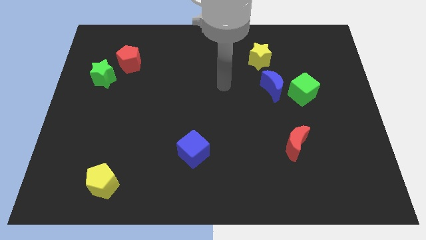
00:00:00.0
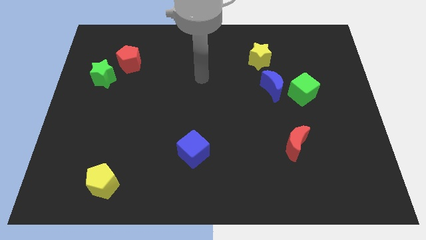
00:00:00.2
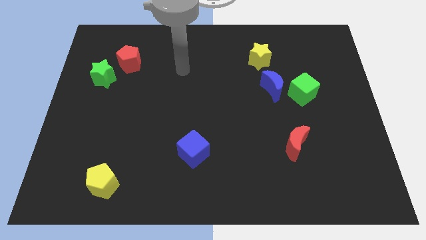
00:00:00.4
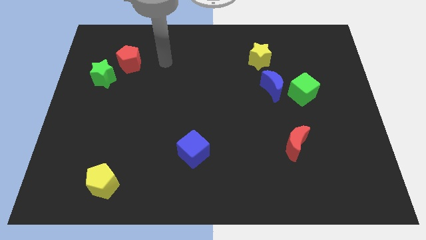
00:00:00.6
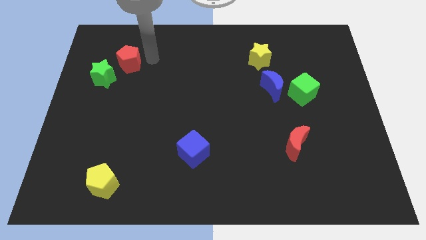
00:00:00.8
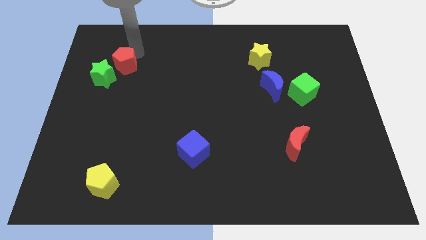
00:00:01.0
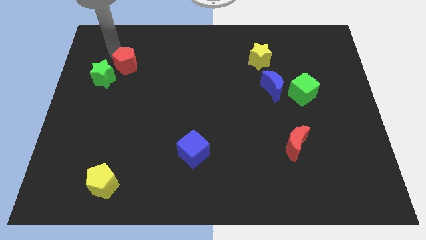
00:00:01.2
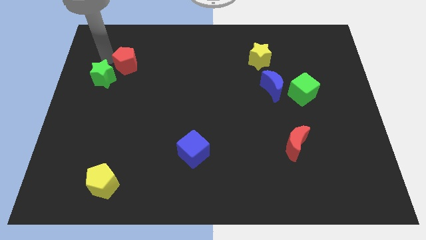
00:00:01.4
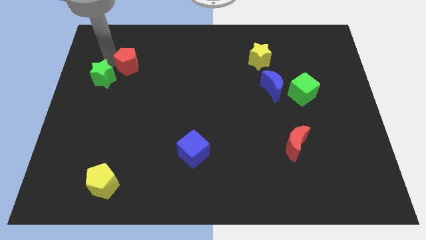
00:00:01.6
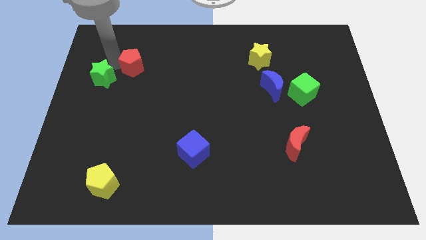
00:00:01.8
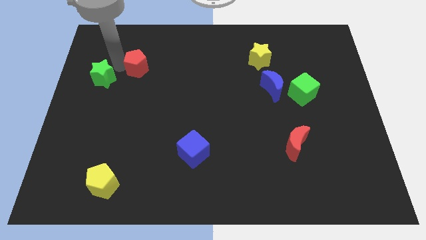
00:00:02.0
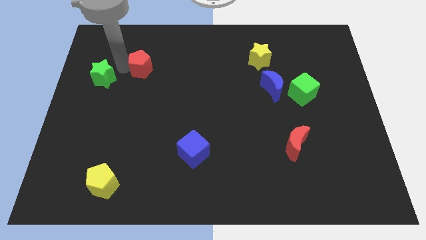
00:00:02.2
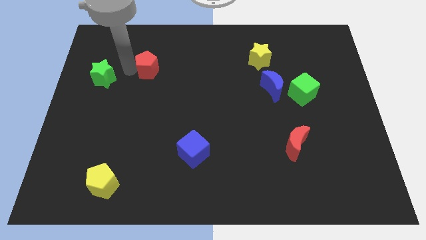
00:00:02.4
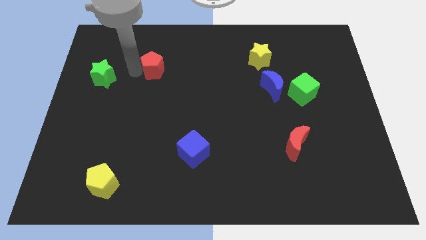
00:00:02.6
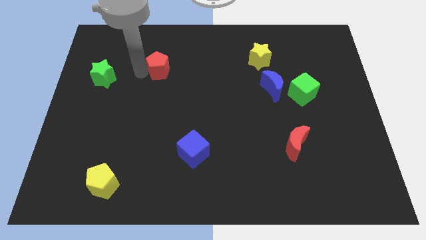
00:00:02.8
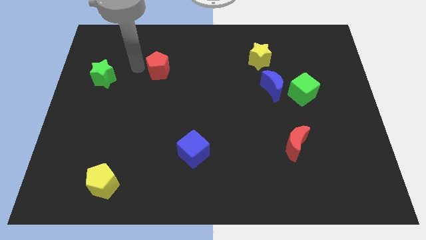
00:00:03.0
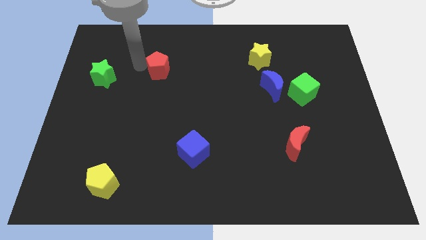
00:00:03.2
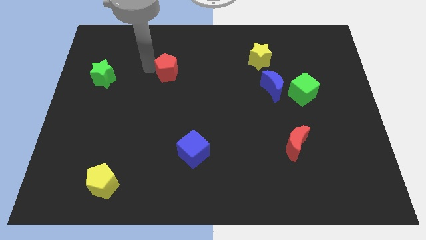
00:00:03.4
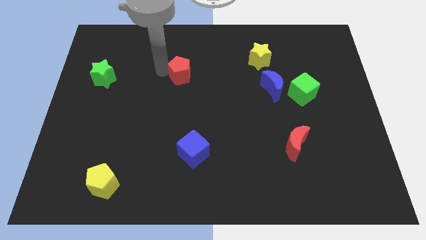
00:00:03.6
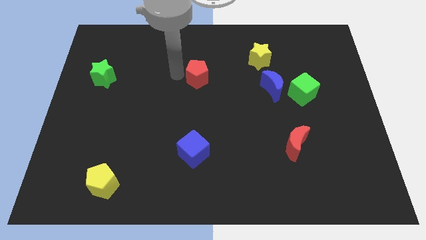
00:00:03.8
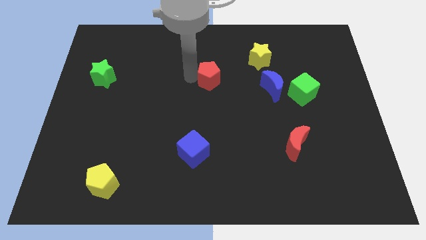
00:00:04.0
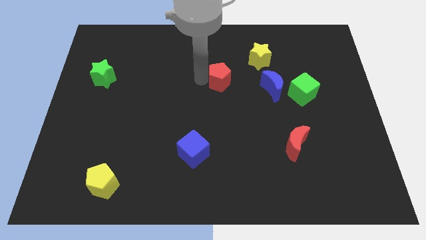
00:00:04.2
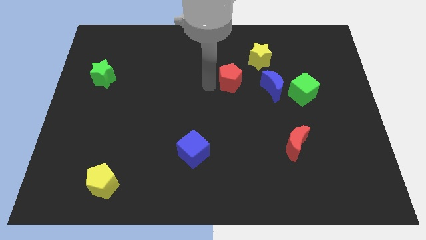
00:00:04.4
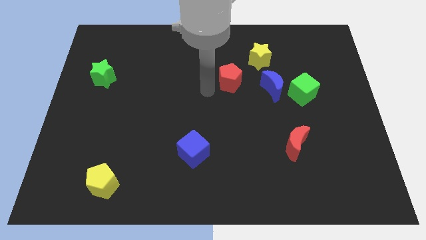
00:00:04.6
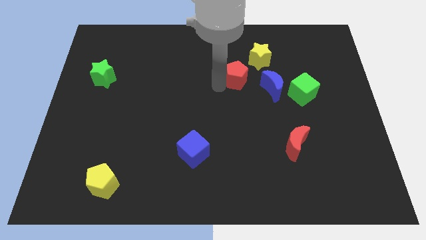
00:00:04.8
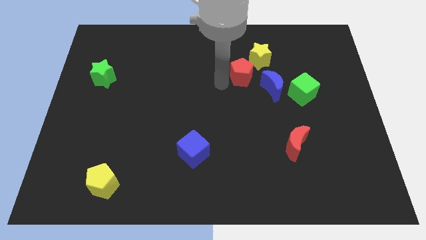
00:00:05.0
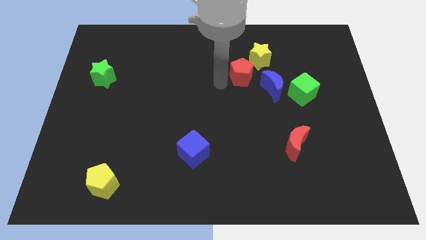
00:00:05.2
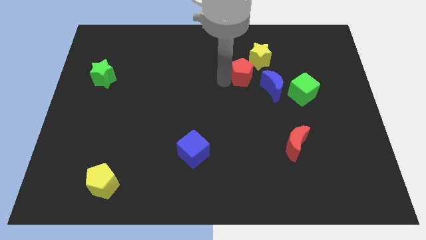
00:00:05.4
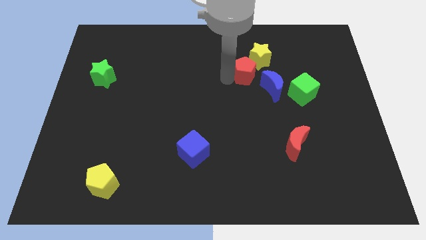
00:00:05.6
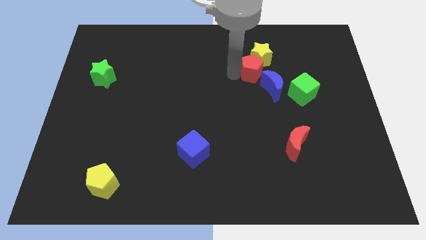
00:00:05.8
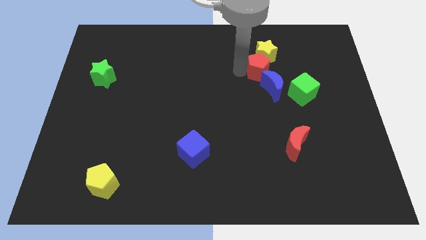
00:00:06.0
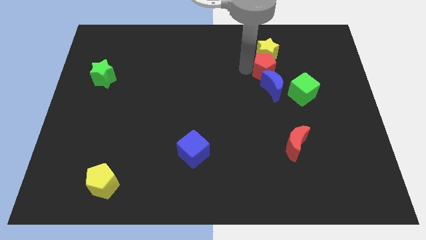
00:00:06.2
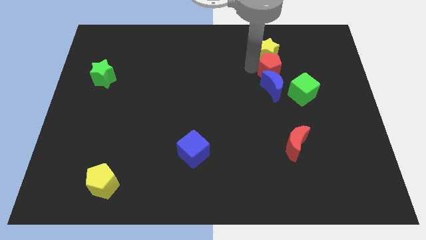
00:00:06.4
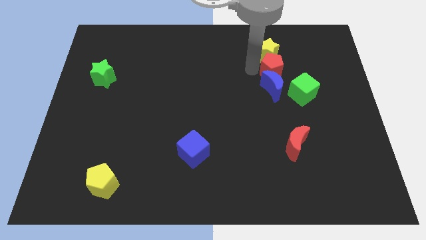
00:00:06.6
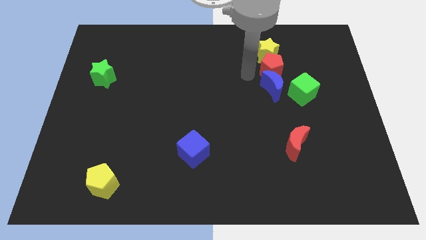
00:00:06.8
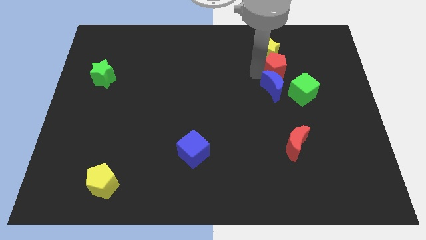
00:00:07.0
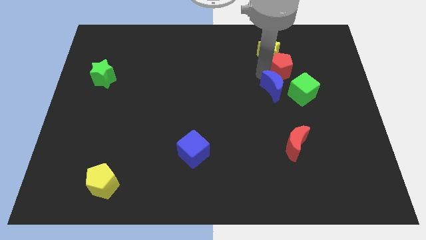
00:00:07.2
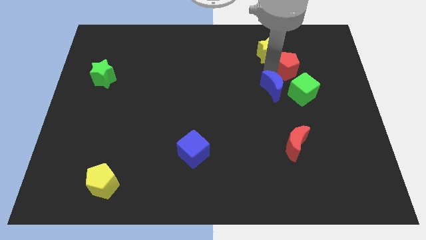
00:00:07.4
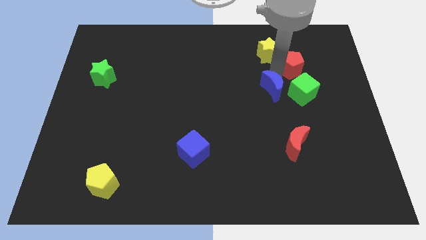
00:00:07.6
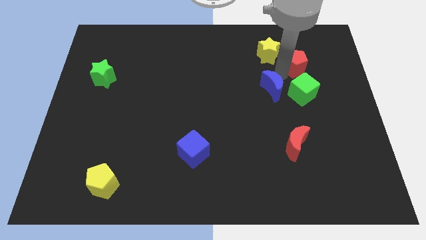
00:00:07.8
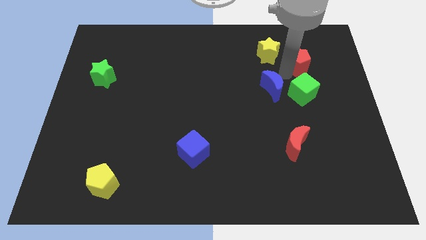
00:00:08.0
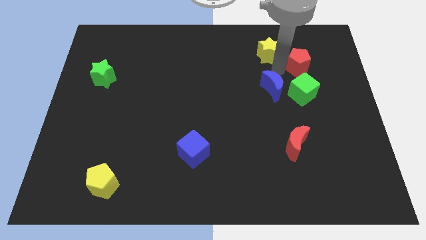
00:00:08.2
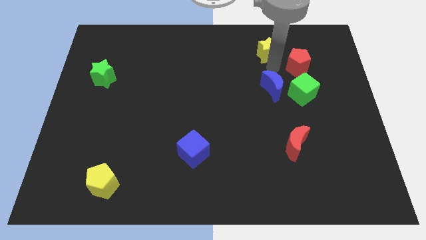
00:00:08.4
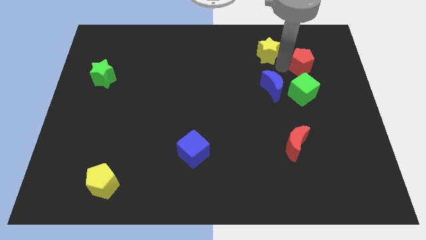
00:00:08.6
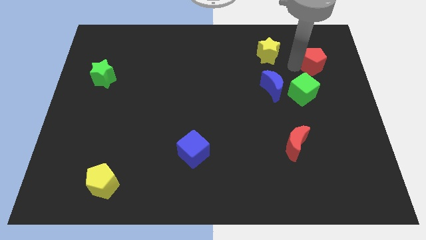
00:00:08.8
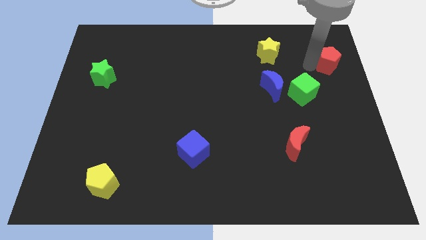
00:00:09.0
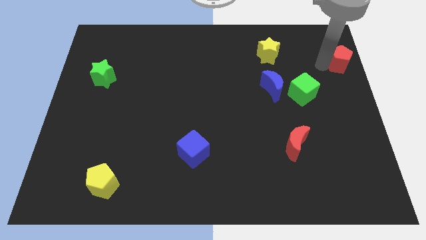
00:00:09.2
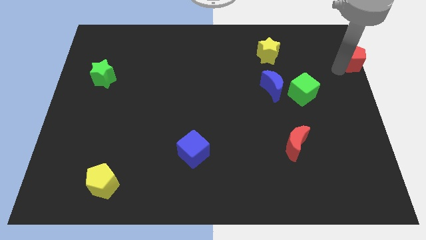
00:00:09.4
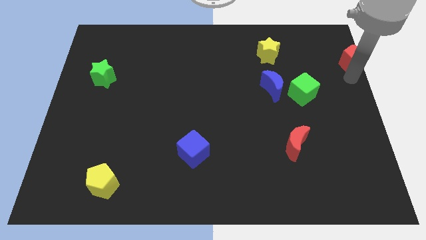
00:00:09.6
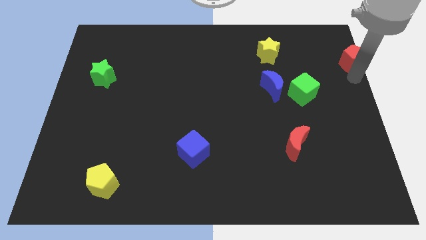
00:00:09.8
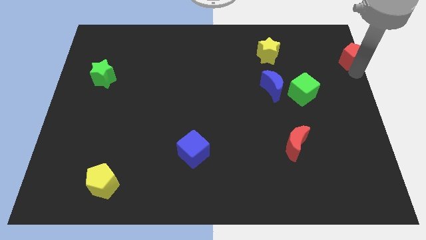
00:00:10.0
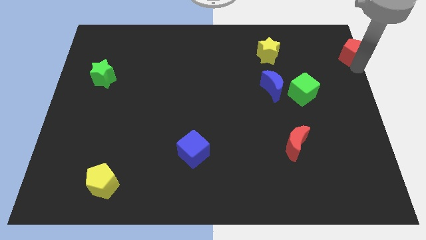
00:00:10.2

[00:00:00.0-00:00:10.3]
slide the red pentagon to the top right

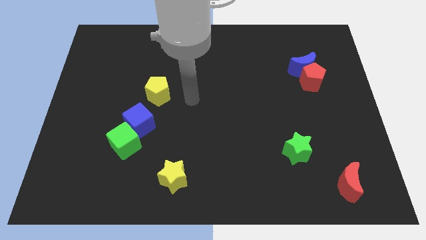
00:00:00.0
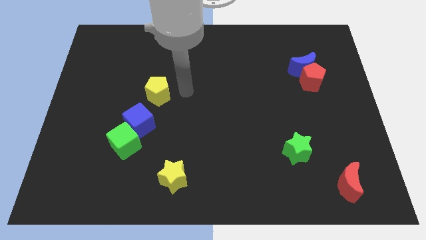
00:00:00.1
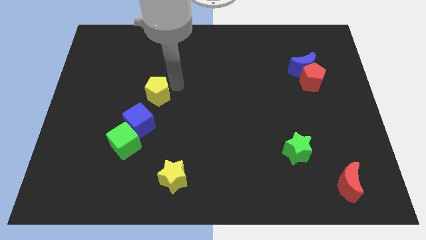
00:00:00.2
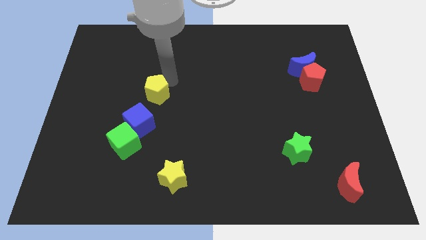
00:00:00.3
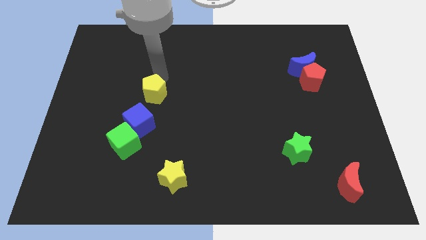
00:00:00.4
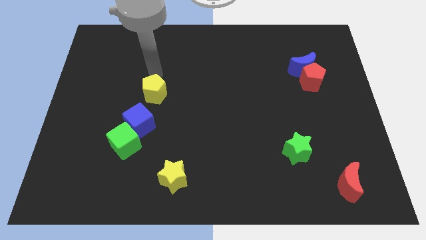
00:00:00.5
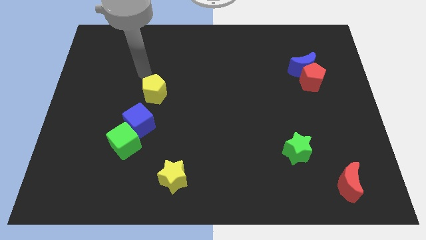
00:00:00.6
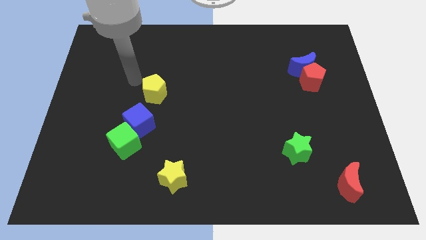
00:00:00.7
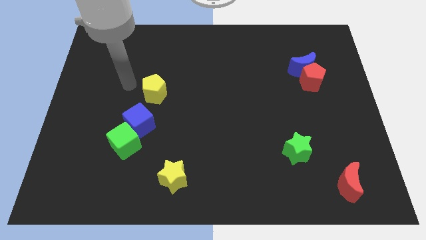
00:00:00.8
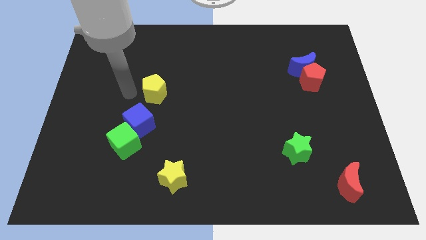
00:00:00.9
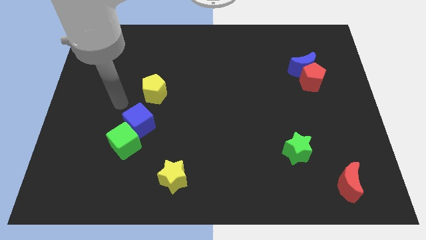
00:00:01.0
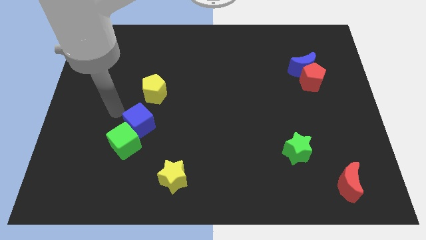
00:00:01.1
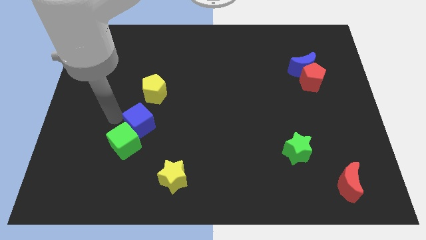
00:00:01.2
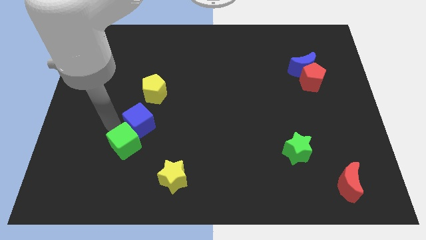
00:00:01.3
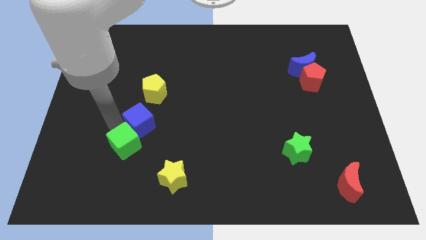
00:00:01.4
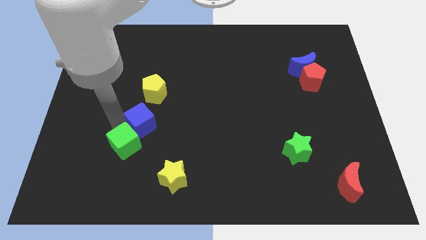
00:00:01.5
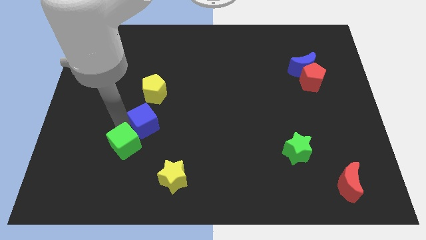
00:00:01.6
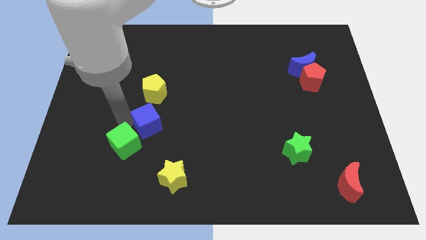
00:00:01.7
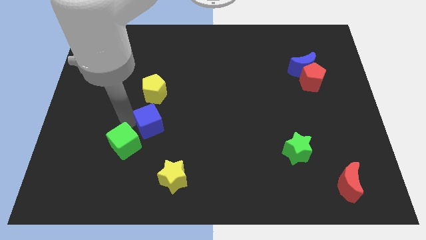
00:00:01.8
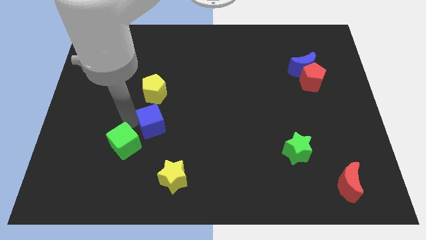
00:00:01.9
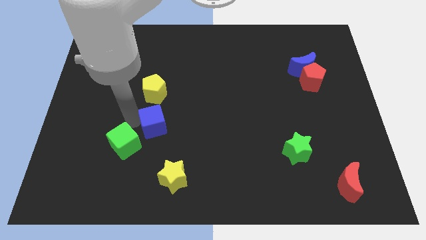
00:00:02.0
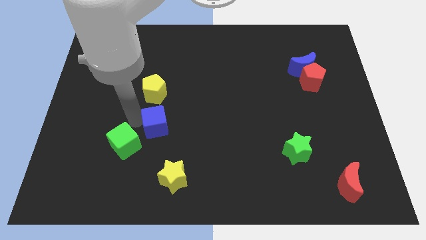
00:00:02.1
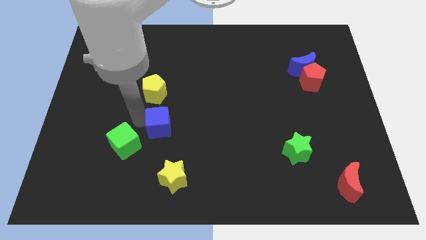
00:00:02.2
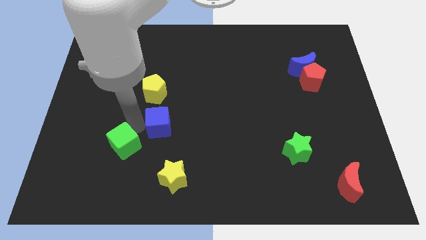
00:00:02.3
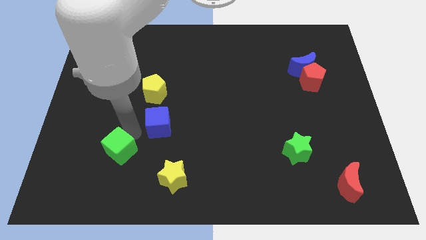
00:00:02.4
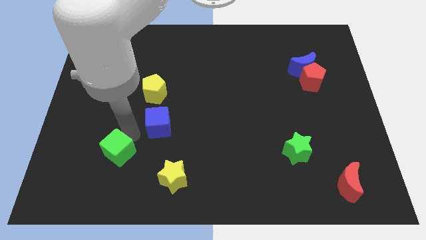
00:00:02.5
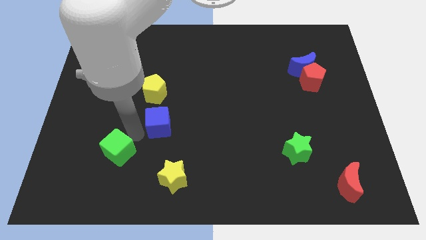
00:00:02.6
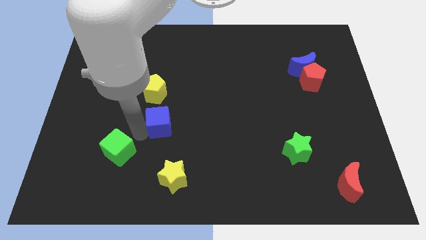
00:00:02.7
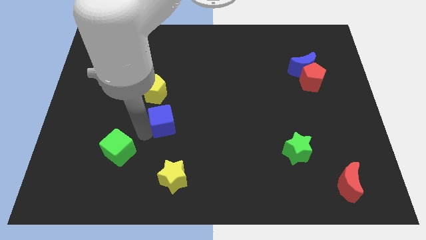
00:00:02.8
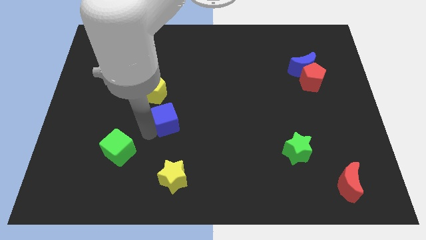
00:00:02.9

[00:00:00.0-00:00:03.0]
push the blue cube to the middle of the board
